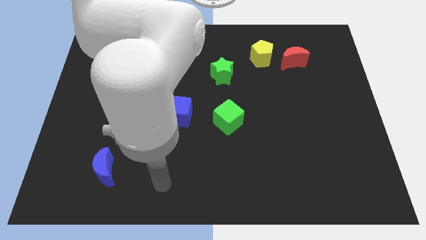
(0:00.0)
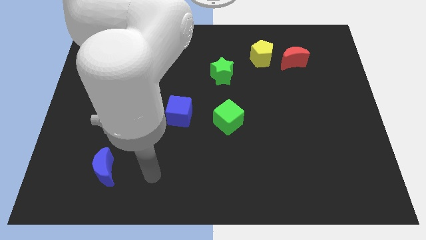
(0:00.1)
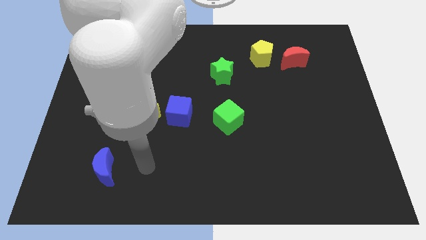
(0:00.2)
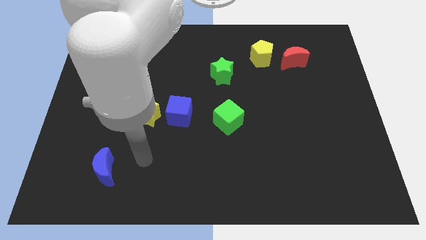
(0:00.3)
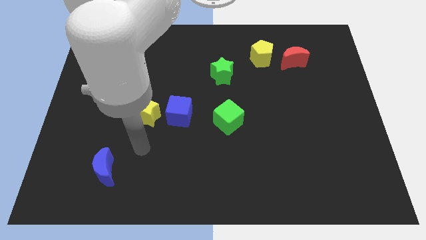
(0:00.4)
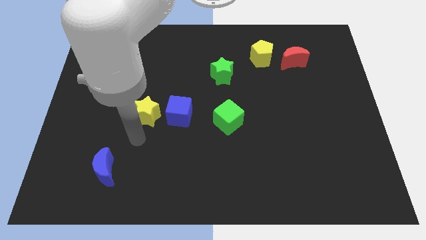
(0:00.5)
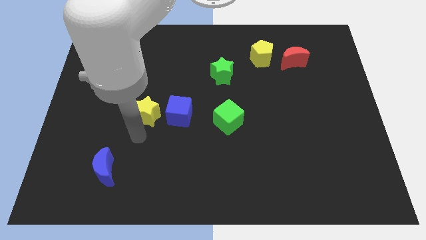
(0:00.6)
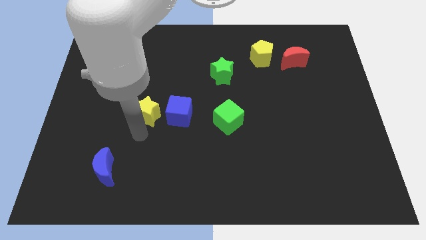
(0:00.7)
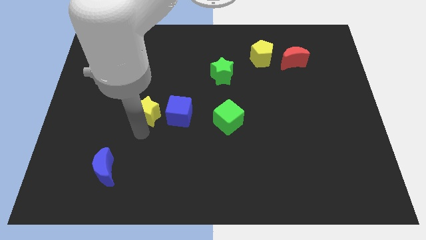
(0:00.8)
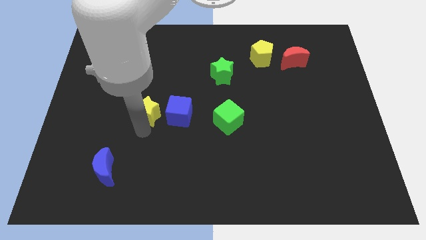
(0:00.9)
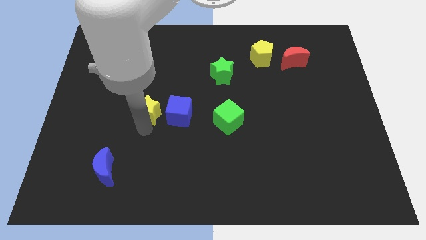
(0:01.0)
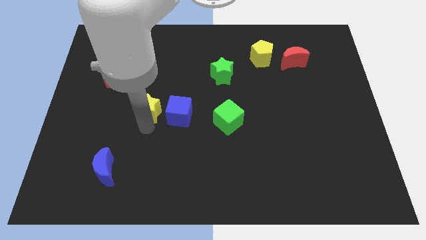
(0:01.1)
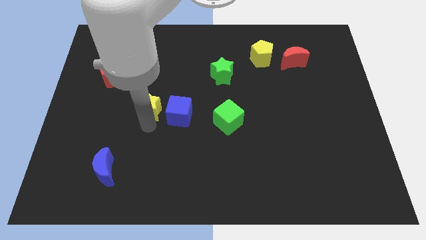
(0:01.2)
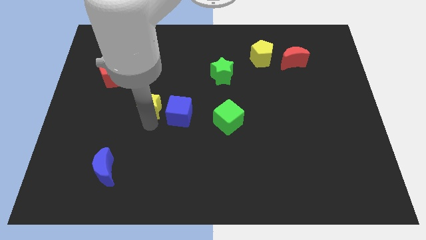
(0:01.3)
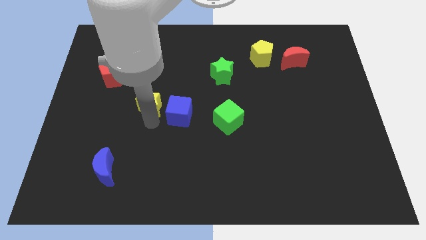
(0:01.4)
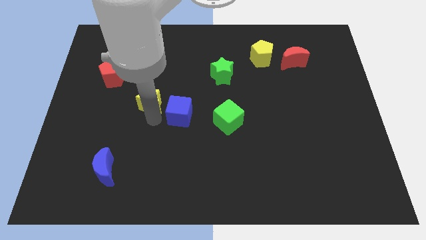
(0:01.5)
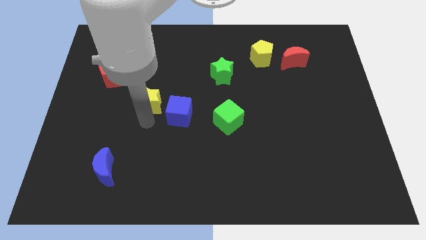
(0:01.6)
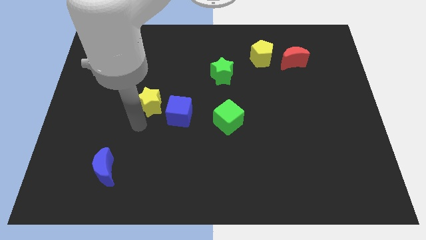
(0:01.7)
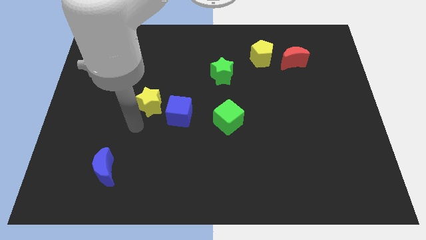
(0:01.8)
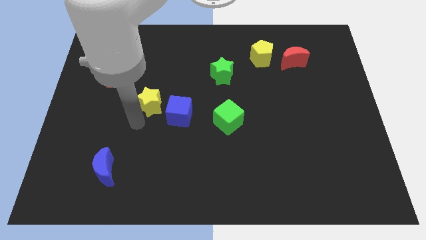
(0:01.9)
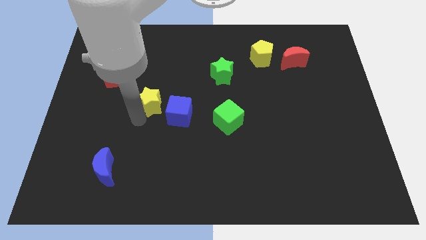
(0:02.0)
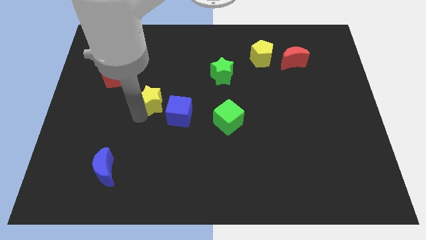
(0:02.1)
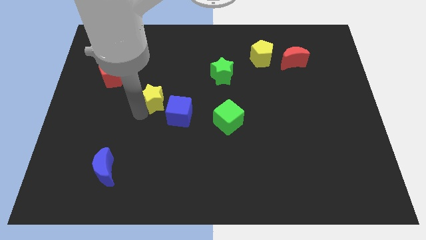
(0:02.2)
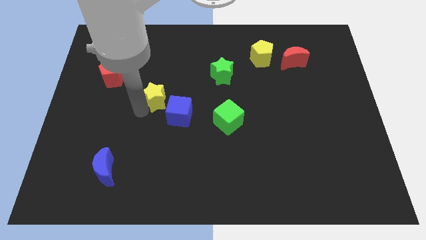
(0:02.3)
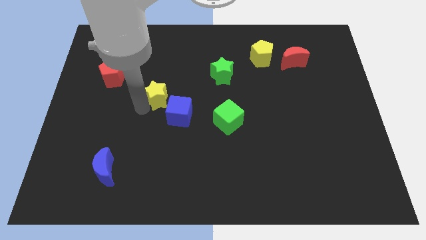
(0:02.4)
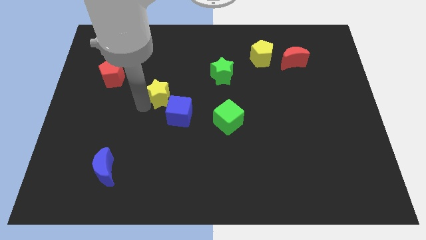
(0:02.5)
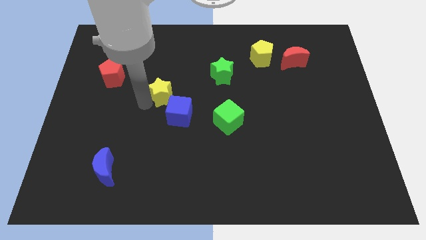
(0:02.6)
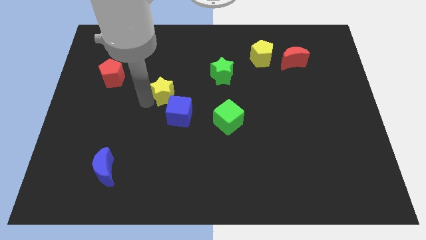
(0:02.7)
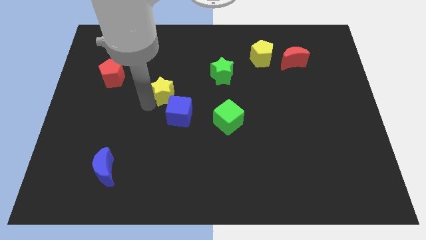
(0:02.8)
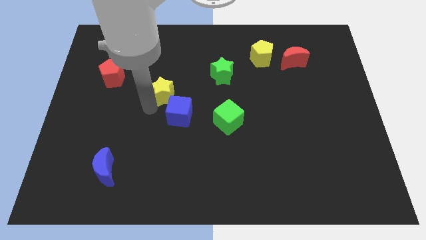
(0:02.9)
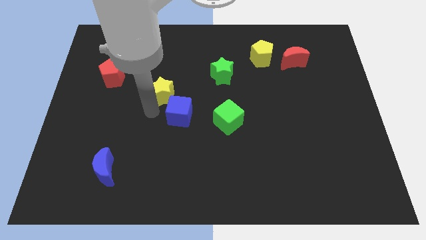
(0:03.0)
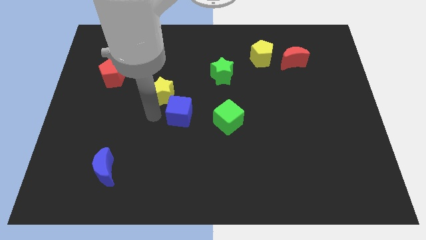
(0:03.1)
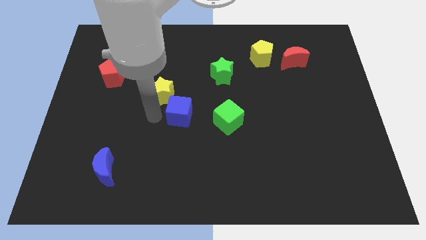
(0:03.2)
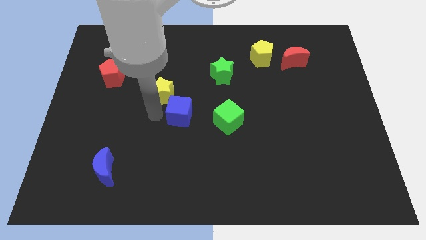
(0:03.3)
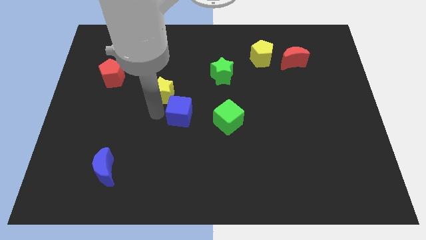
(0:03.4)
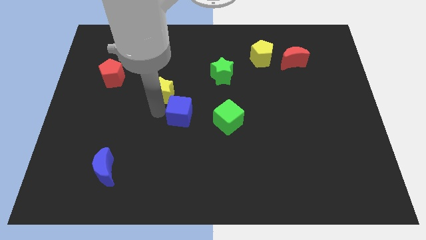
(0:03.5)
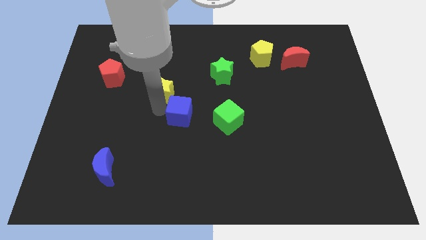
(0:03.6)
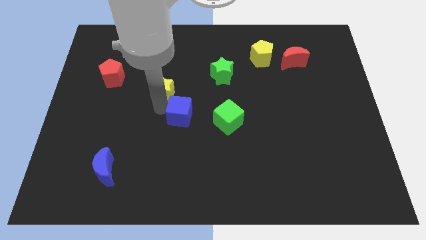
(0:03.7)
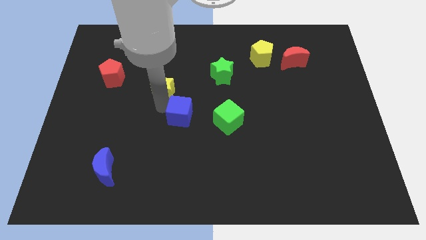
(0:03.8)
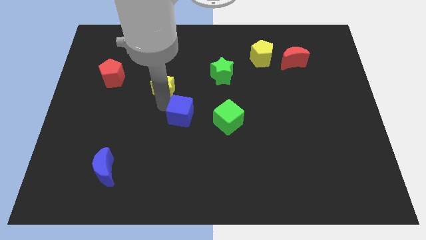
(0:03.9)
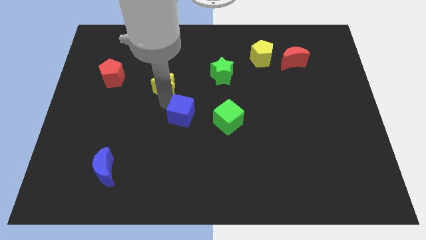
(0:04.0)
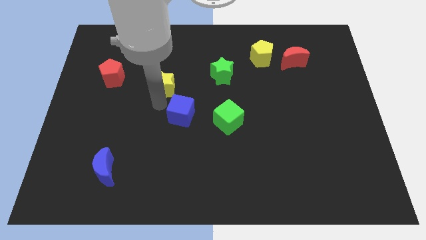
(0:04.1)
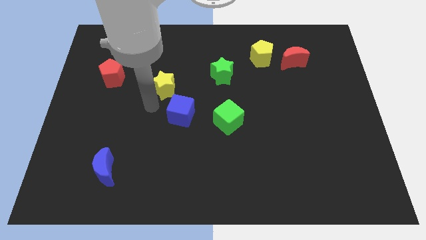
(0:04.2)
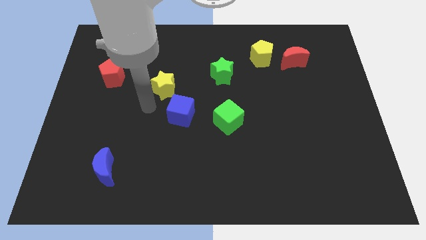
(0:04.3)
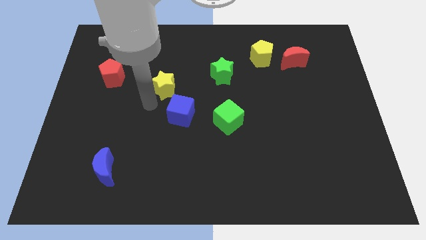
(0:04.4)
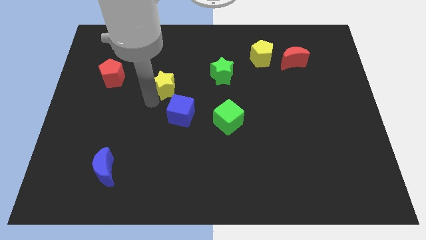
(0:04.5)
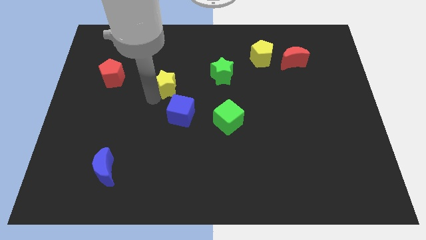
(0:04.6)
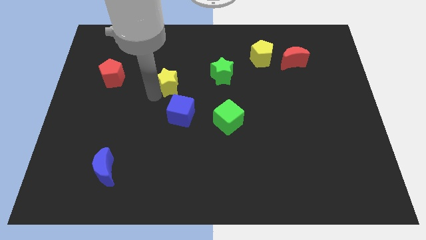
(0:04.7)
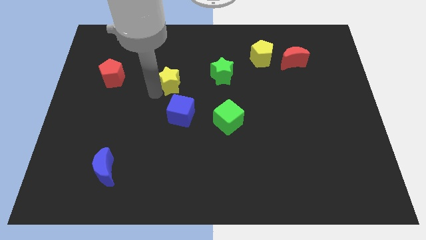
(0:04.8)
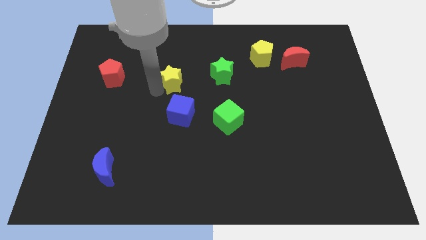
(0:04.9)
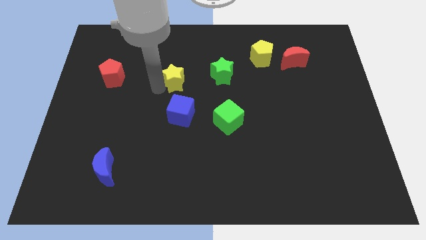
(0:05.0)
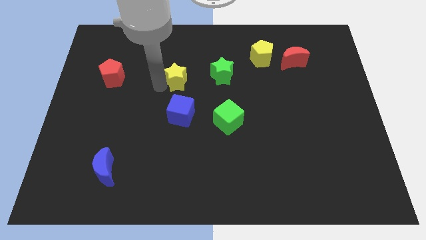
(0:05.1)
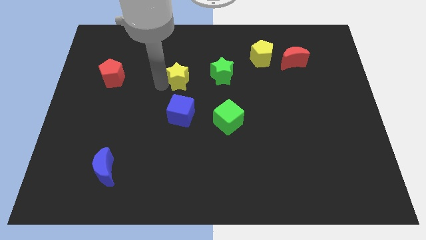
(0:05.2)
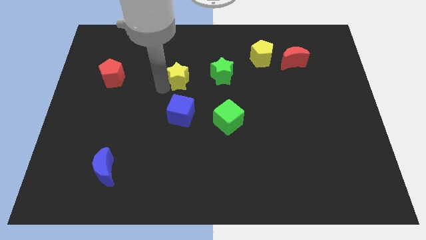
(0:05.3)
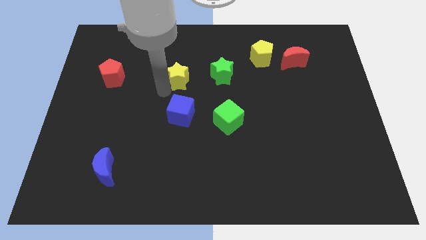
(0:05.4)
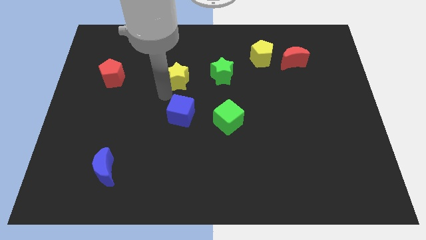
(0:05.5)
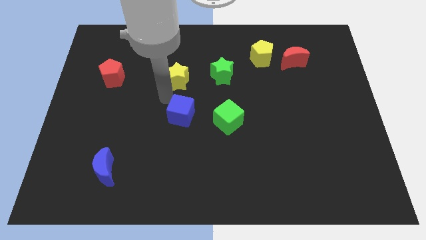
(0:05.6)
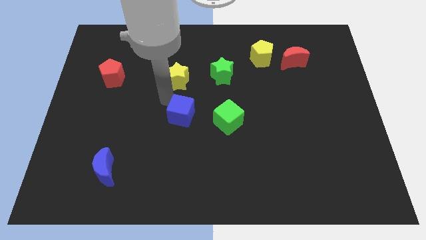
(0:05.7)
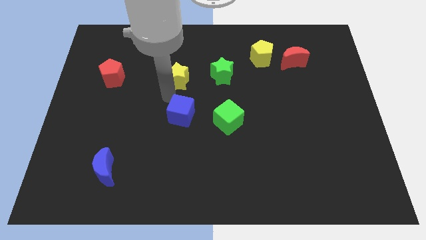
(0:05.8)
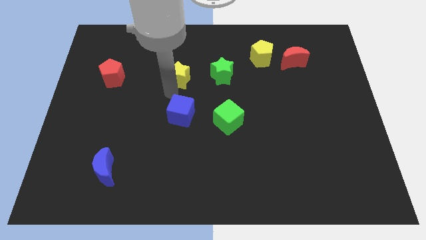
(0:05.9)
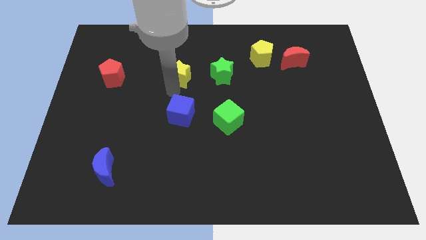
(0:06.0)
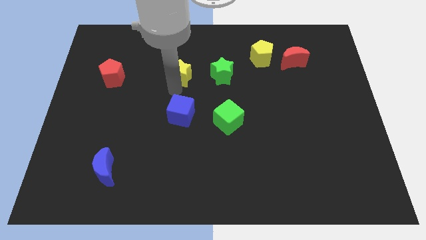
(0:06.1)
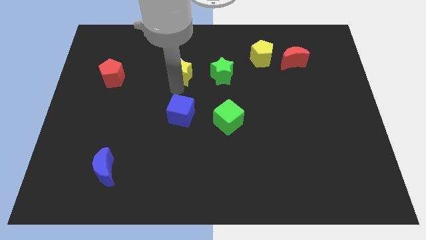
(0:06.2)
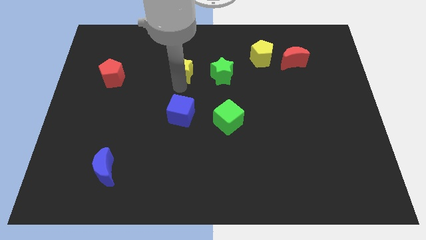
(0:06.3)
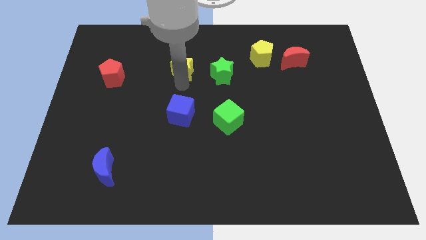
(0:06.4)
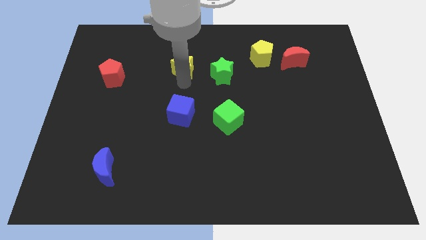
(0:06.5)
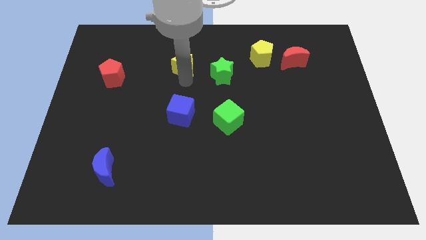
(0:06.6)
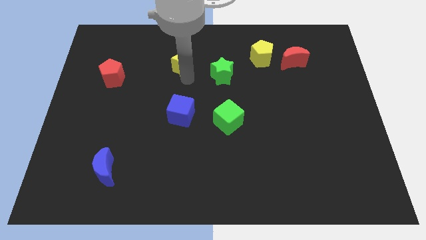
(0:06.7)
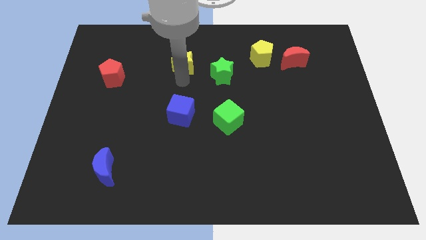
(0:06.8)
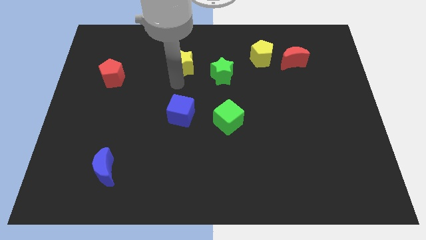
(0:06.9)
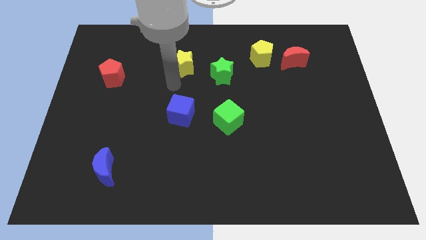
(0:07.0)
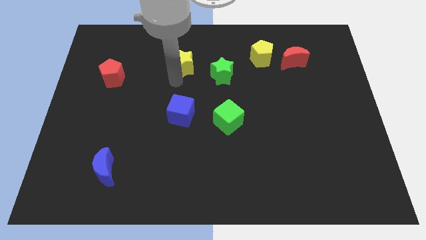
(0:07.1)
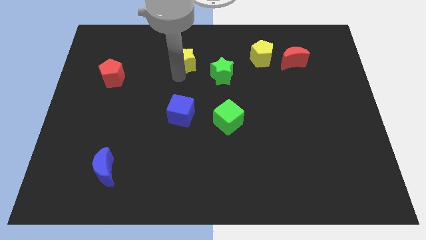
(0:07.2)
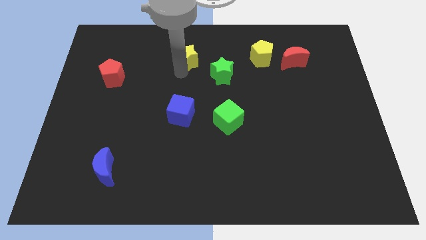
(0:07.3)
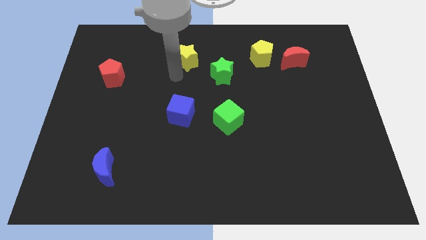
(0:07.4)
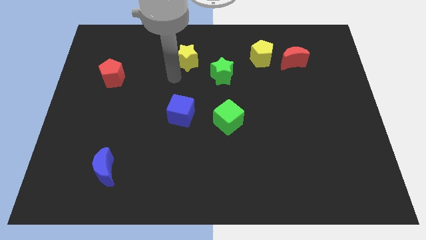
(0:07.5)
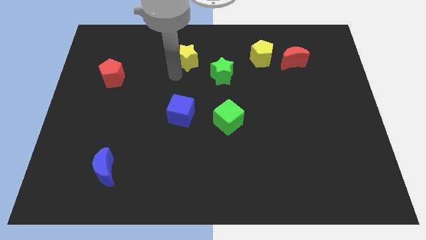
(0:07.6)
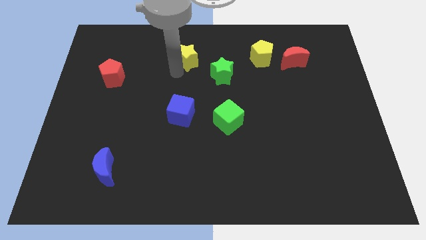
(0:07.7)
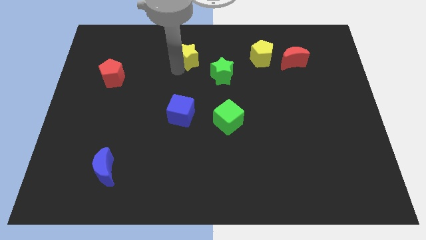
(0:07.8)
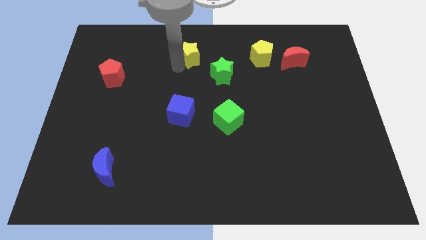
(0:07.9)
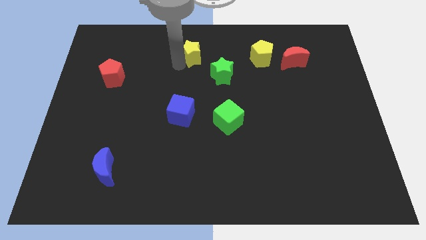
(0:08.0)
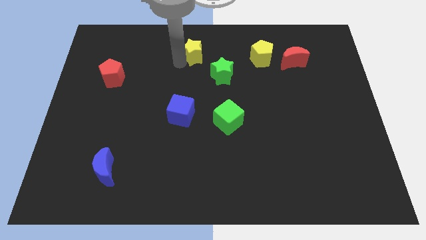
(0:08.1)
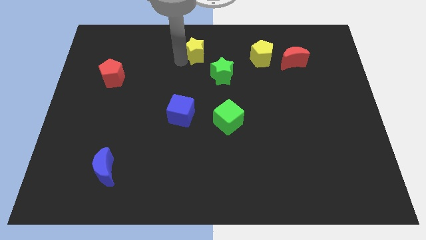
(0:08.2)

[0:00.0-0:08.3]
move the yellow star to the top
